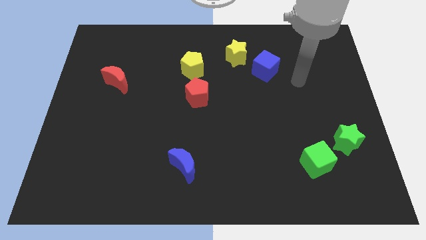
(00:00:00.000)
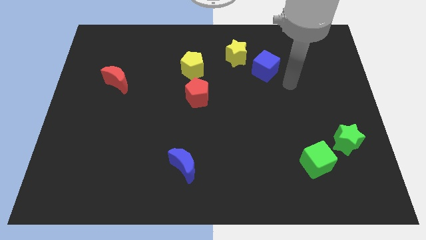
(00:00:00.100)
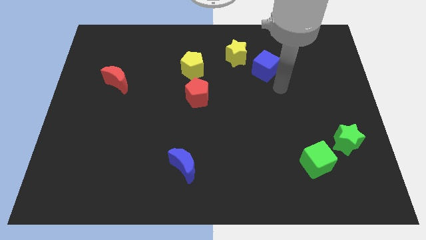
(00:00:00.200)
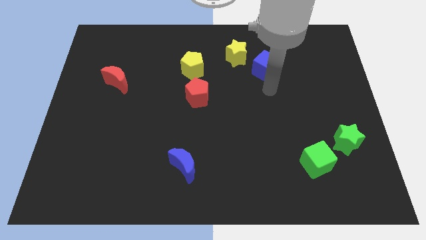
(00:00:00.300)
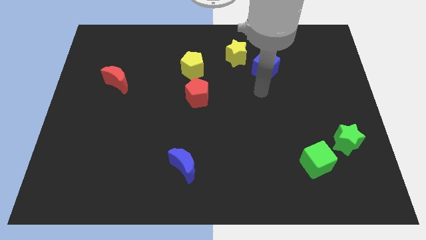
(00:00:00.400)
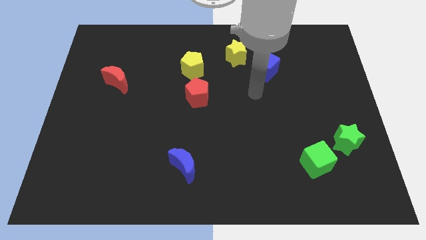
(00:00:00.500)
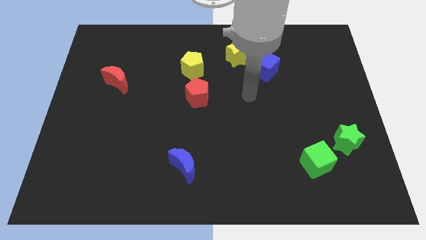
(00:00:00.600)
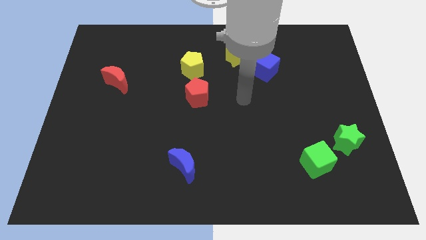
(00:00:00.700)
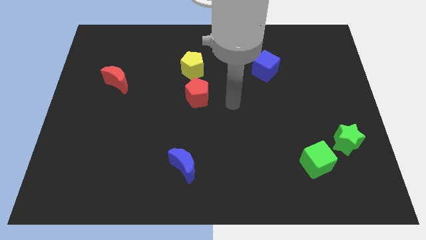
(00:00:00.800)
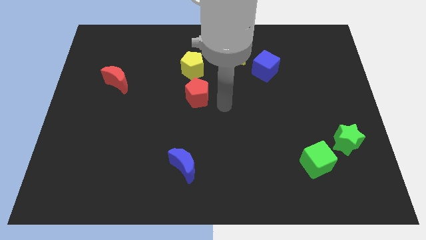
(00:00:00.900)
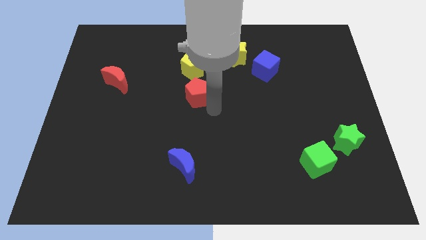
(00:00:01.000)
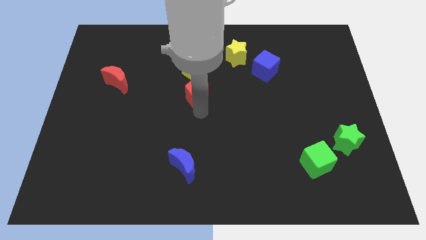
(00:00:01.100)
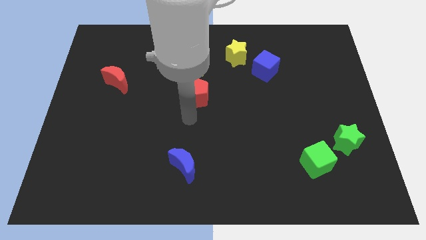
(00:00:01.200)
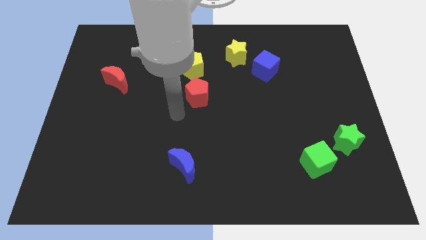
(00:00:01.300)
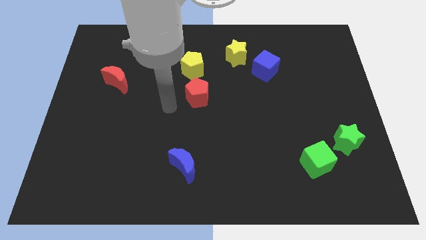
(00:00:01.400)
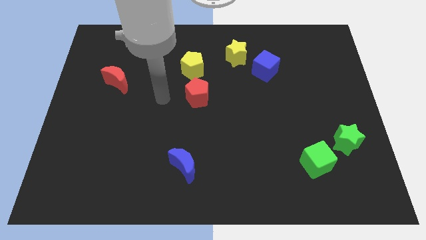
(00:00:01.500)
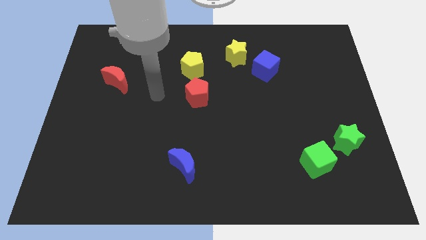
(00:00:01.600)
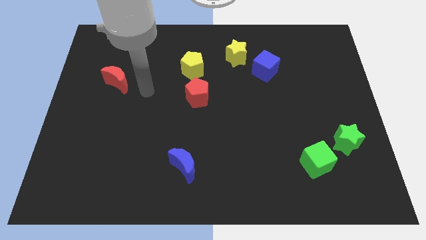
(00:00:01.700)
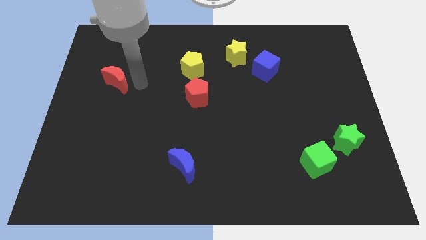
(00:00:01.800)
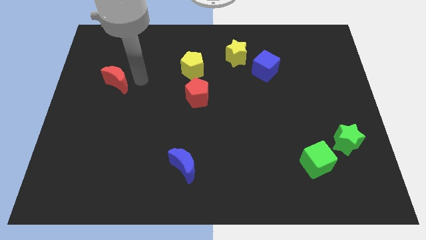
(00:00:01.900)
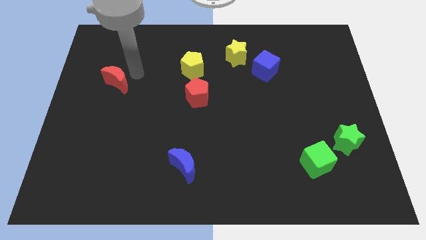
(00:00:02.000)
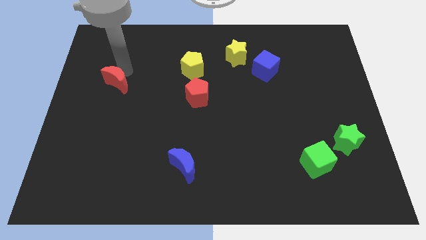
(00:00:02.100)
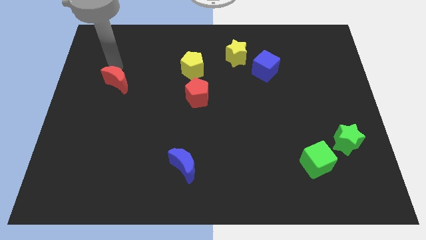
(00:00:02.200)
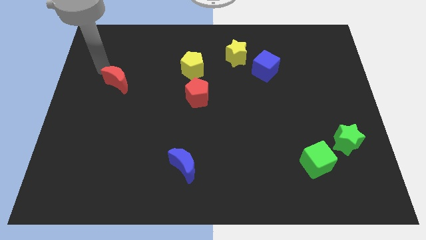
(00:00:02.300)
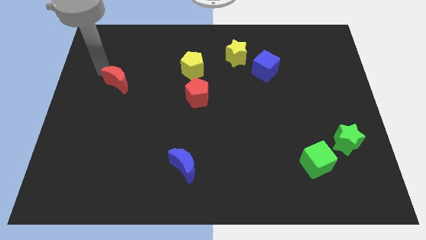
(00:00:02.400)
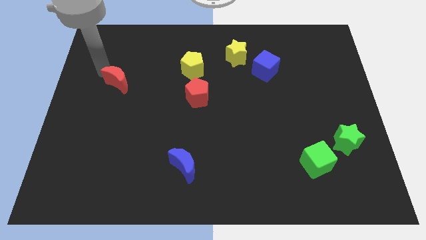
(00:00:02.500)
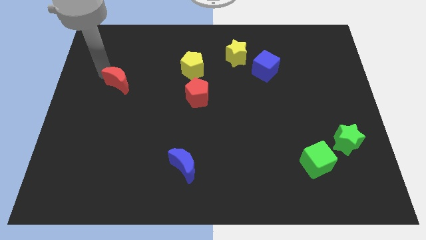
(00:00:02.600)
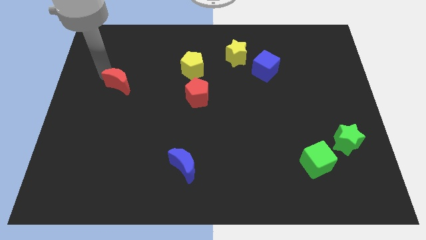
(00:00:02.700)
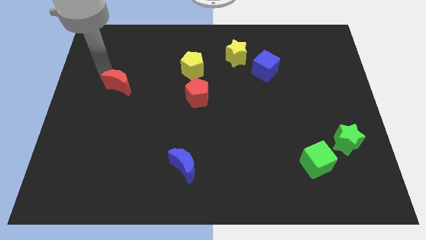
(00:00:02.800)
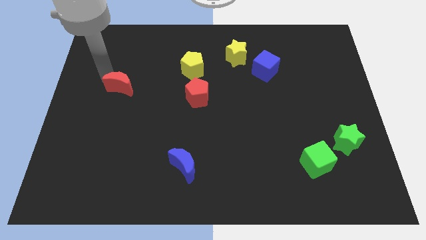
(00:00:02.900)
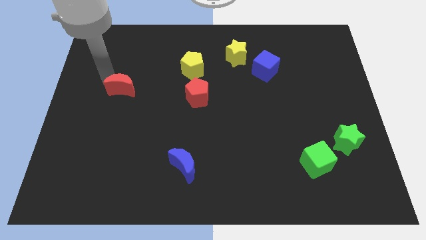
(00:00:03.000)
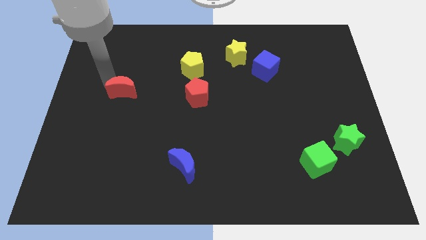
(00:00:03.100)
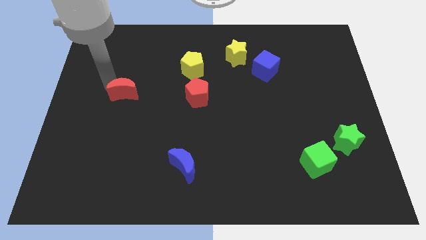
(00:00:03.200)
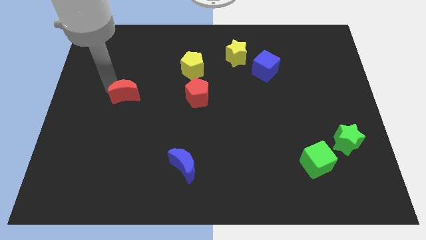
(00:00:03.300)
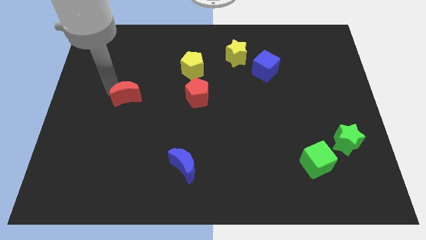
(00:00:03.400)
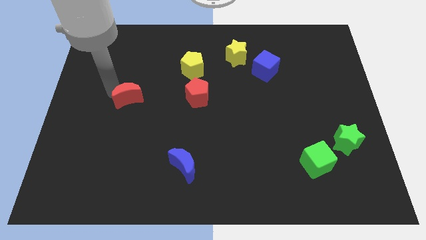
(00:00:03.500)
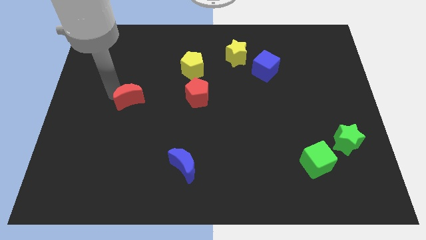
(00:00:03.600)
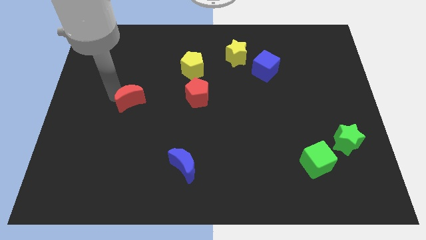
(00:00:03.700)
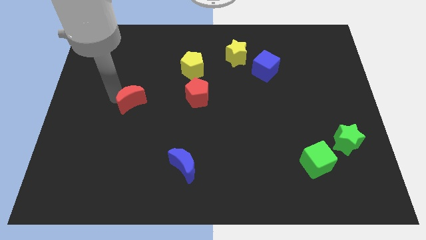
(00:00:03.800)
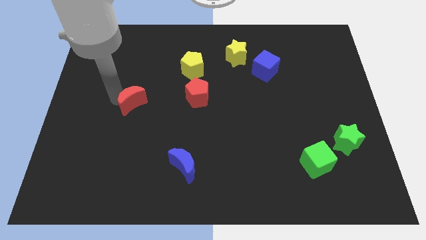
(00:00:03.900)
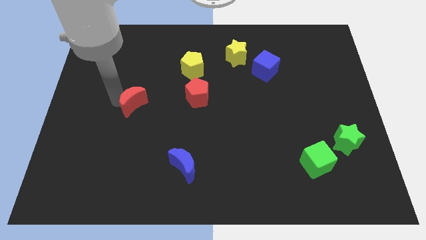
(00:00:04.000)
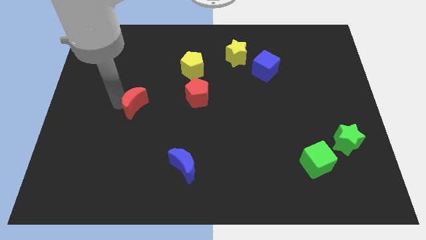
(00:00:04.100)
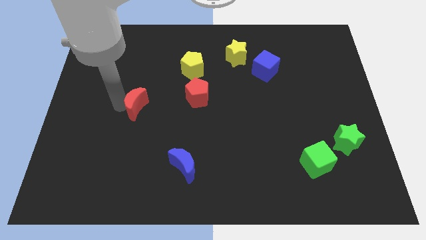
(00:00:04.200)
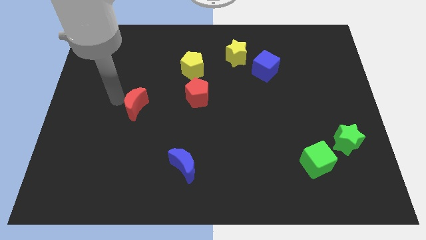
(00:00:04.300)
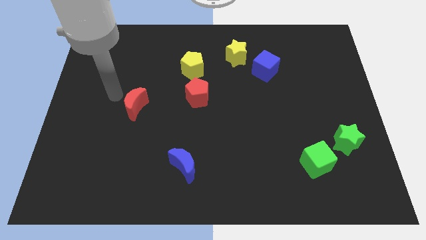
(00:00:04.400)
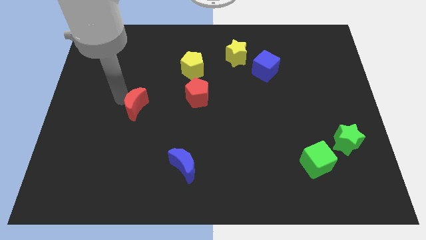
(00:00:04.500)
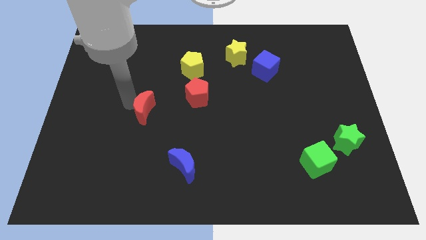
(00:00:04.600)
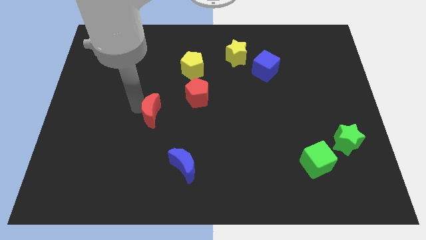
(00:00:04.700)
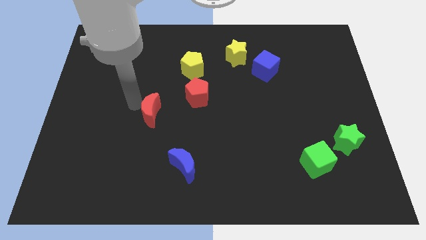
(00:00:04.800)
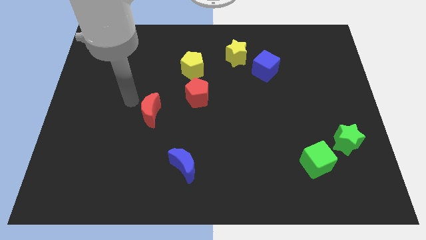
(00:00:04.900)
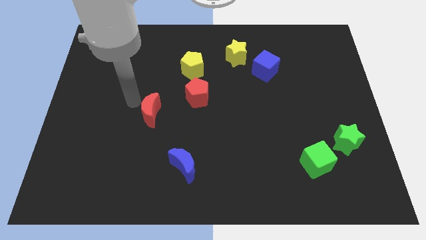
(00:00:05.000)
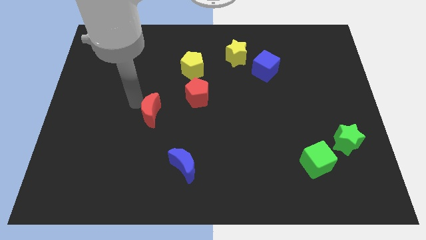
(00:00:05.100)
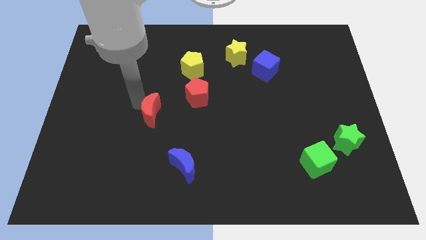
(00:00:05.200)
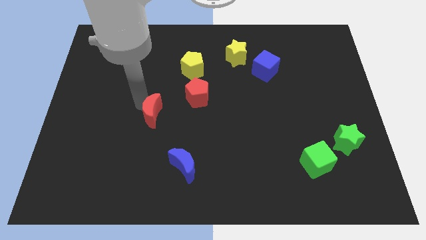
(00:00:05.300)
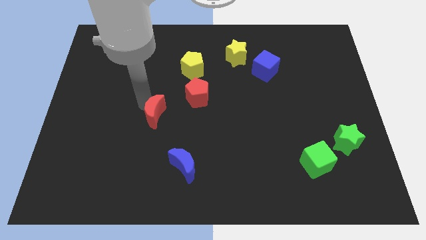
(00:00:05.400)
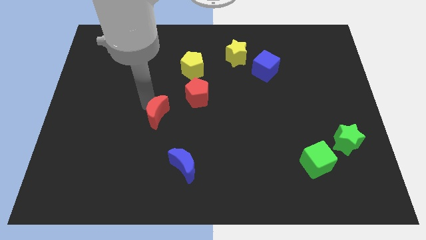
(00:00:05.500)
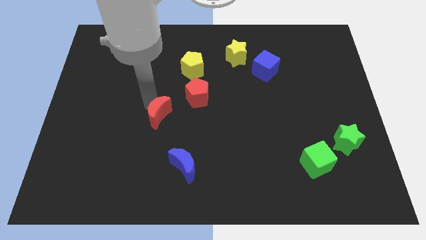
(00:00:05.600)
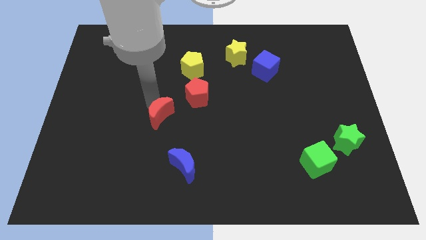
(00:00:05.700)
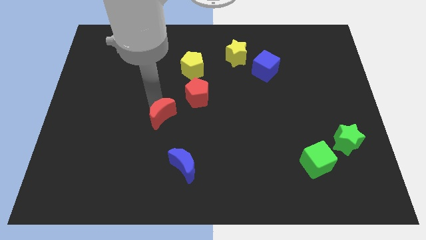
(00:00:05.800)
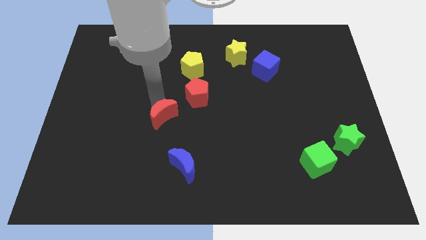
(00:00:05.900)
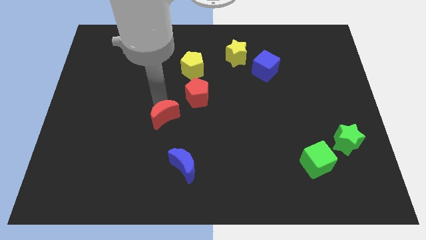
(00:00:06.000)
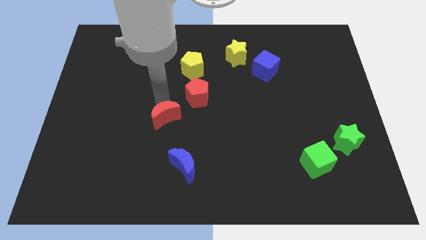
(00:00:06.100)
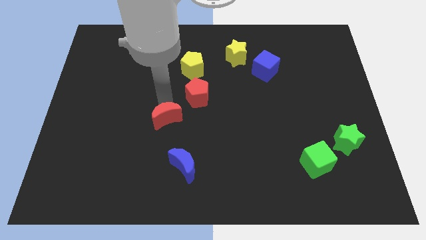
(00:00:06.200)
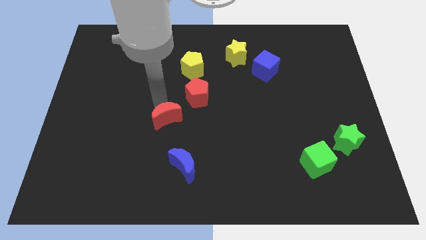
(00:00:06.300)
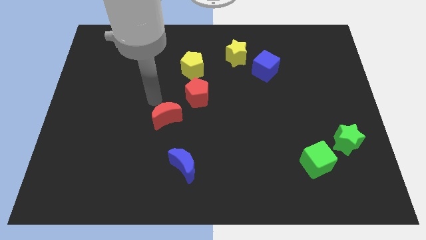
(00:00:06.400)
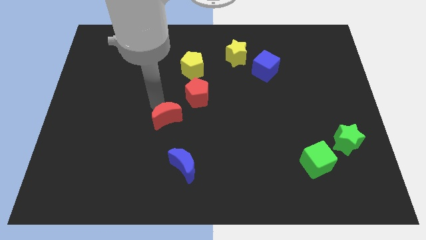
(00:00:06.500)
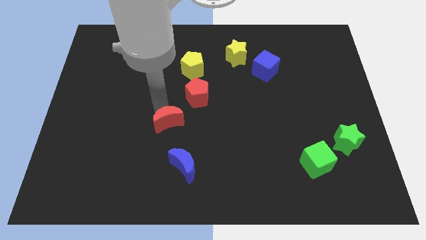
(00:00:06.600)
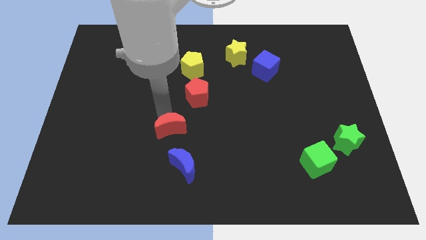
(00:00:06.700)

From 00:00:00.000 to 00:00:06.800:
slide the red moon down and then right

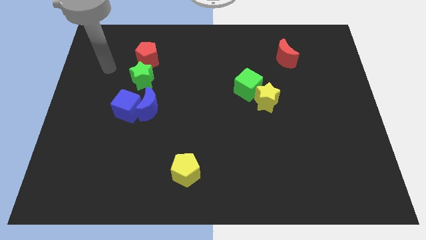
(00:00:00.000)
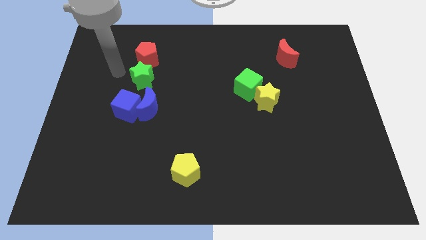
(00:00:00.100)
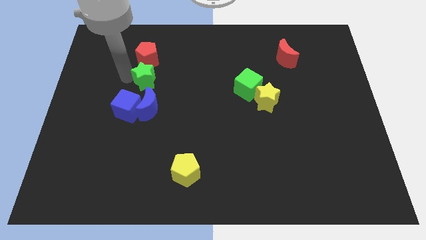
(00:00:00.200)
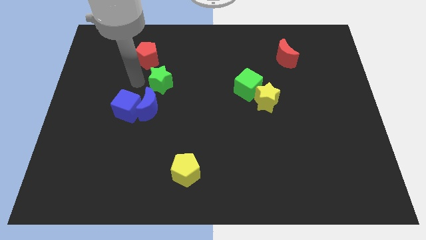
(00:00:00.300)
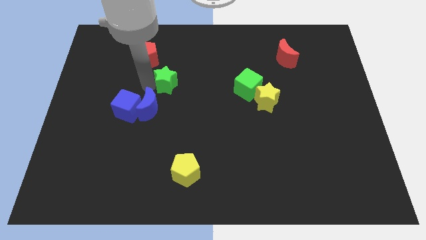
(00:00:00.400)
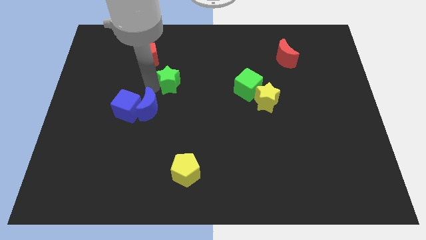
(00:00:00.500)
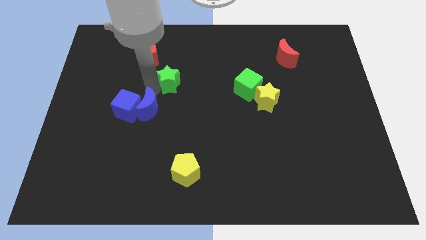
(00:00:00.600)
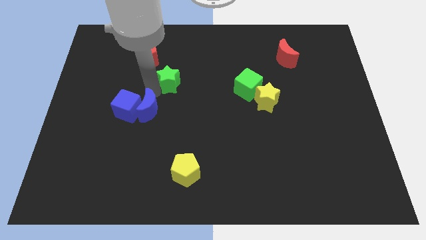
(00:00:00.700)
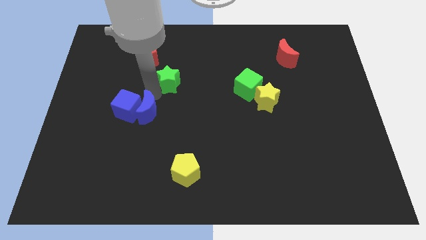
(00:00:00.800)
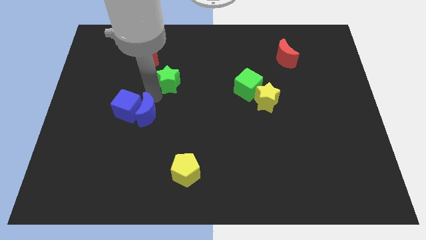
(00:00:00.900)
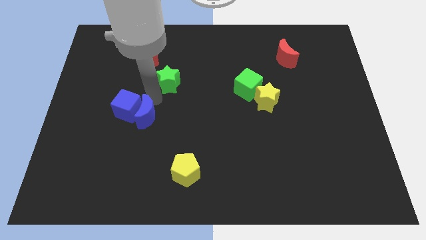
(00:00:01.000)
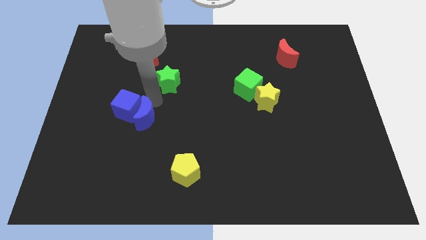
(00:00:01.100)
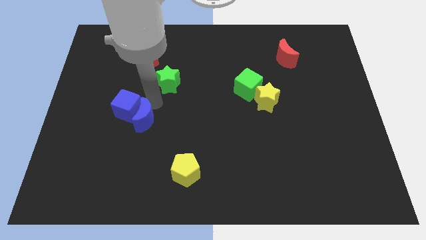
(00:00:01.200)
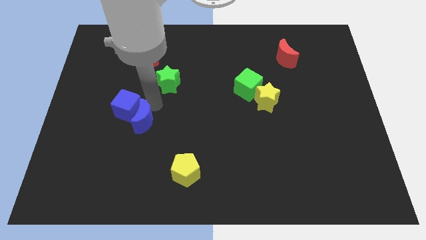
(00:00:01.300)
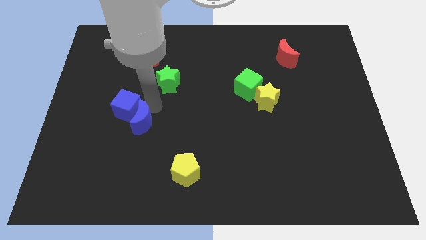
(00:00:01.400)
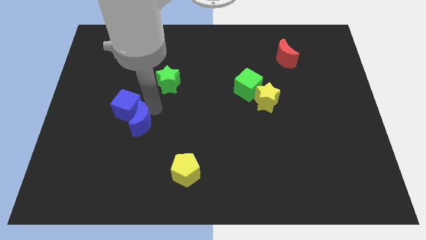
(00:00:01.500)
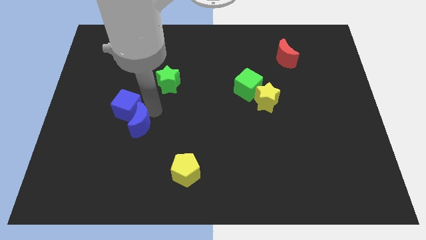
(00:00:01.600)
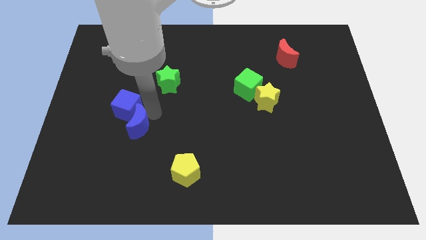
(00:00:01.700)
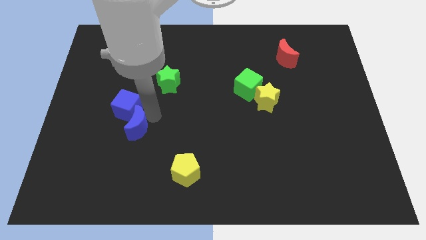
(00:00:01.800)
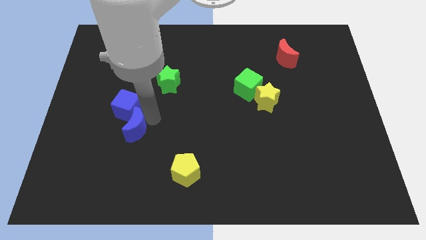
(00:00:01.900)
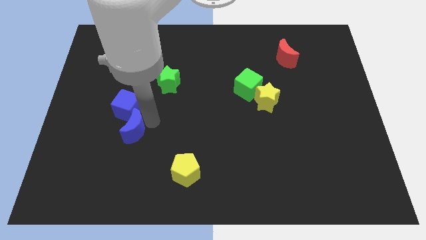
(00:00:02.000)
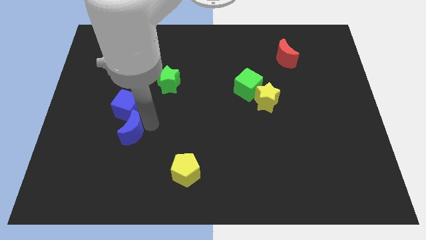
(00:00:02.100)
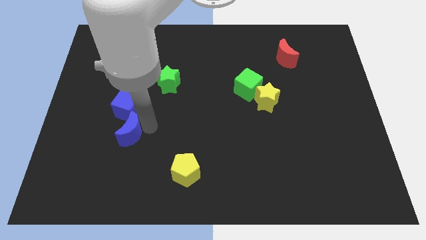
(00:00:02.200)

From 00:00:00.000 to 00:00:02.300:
slightly push the blue moon down
